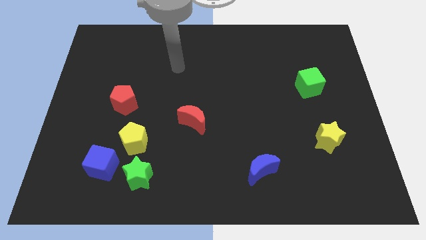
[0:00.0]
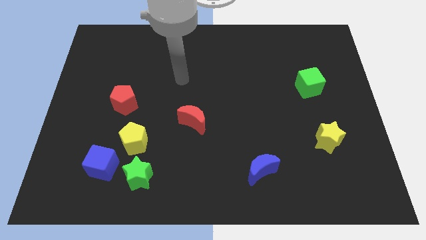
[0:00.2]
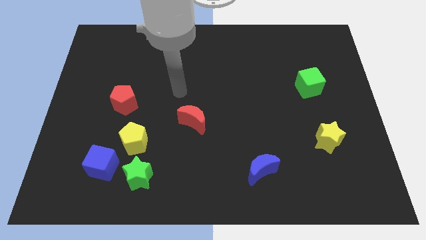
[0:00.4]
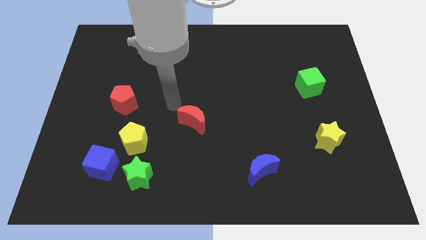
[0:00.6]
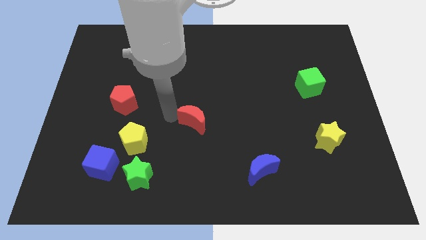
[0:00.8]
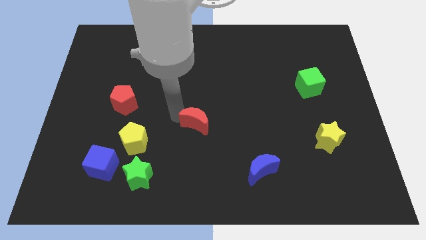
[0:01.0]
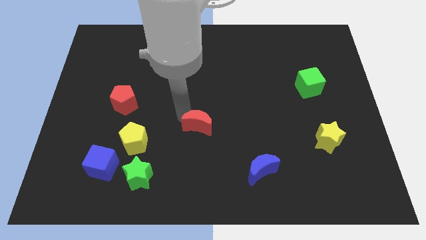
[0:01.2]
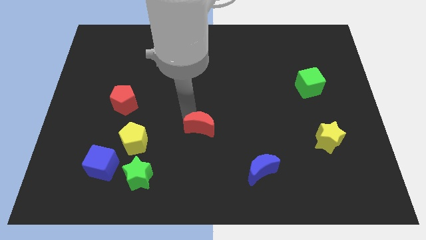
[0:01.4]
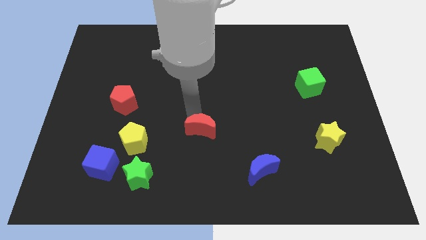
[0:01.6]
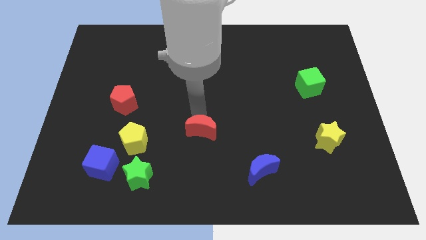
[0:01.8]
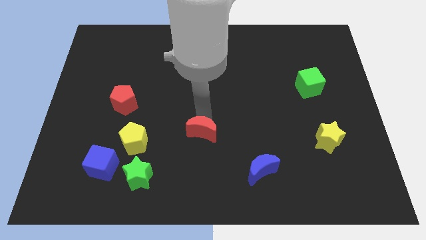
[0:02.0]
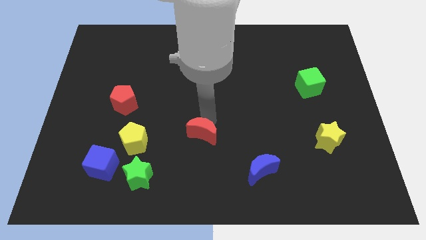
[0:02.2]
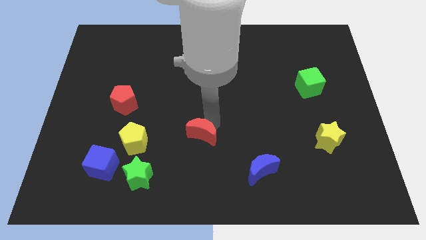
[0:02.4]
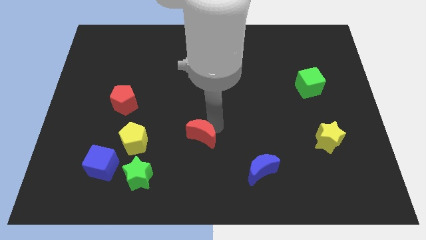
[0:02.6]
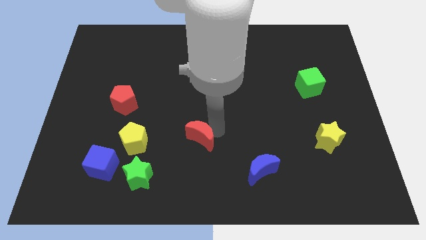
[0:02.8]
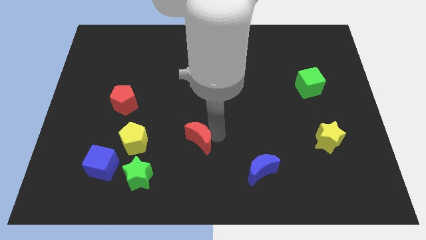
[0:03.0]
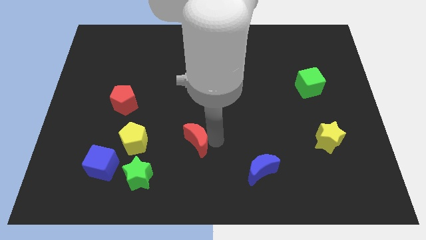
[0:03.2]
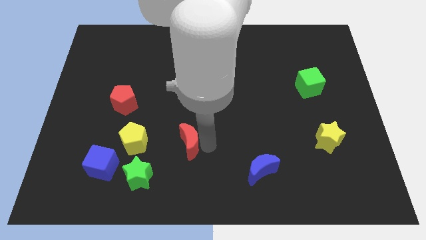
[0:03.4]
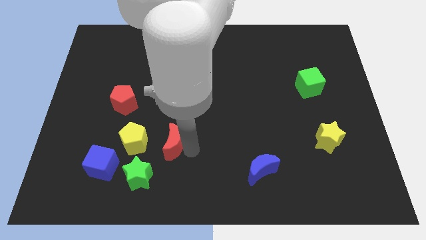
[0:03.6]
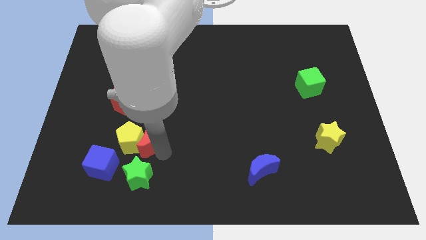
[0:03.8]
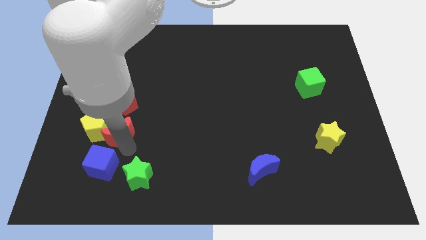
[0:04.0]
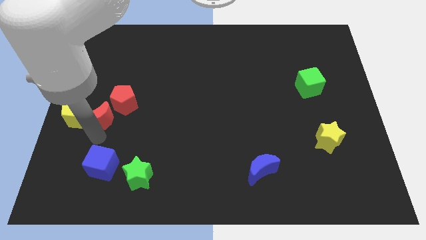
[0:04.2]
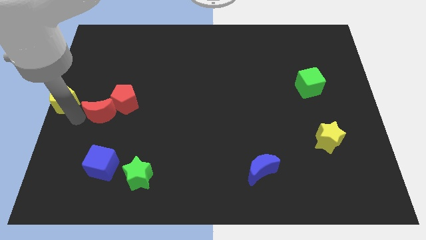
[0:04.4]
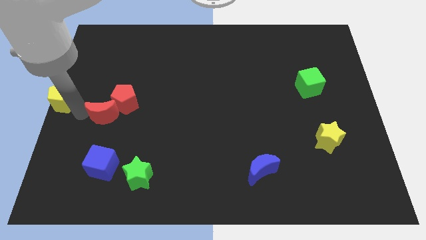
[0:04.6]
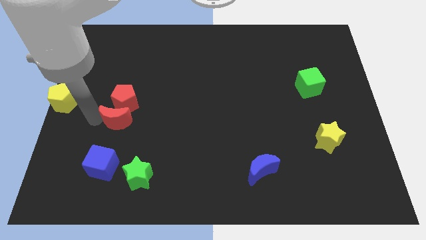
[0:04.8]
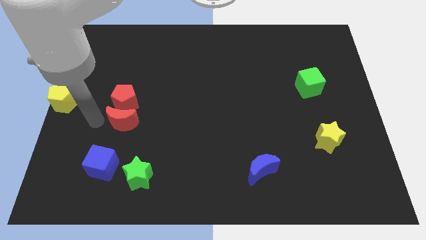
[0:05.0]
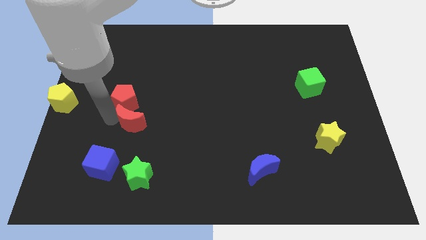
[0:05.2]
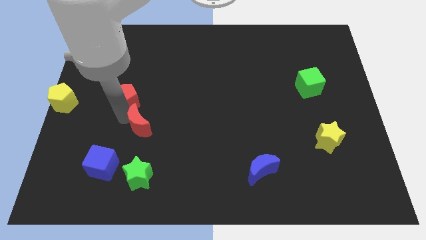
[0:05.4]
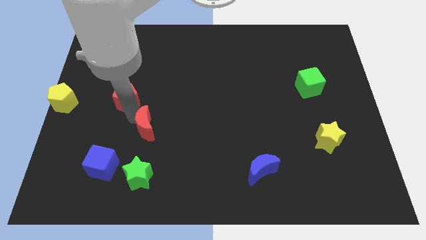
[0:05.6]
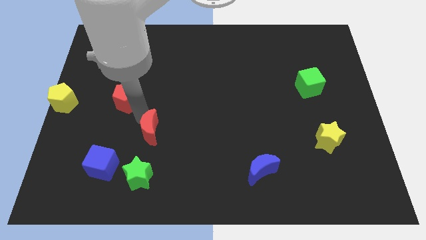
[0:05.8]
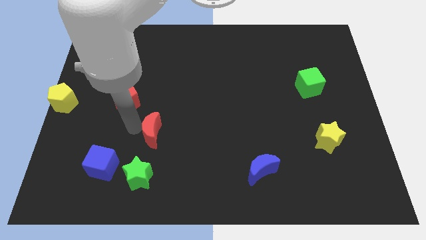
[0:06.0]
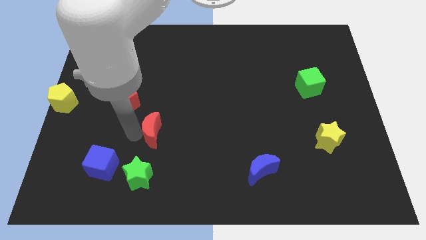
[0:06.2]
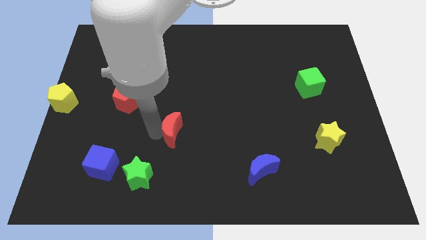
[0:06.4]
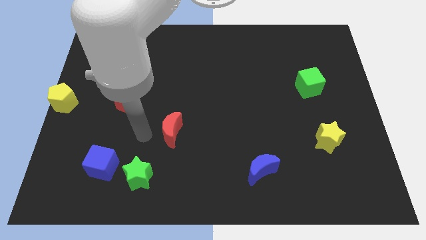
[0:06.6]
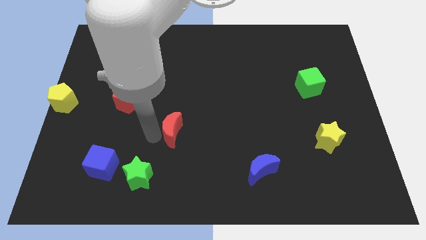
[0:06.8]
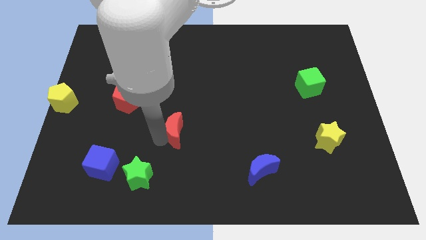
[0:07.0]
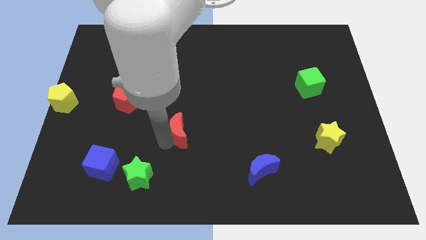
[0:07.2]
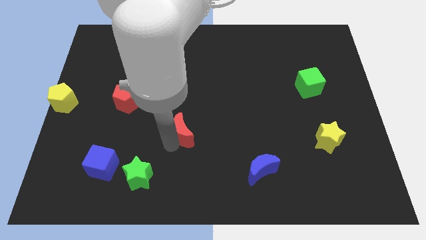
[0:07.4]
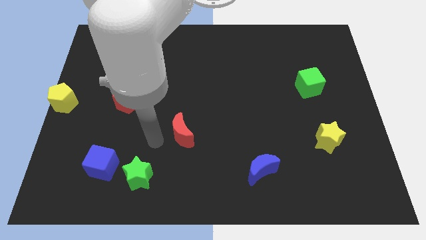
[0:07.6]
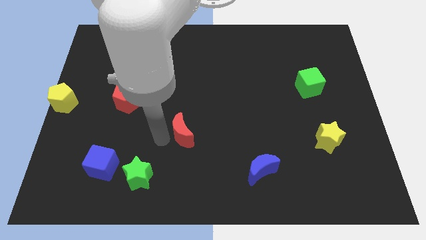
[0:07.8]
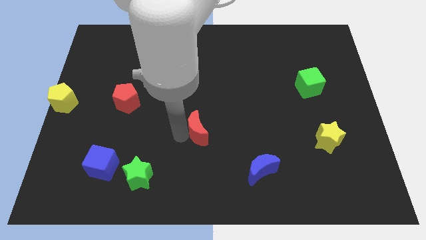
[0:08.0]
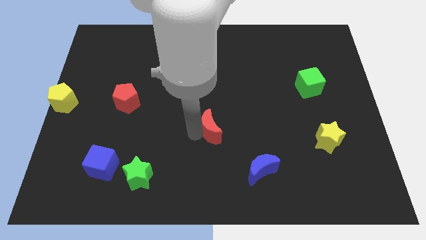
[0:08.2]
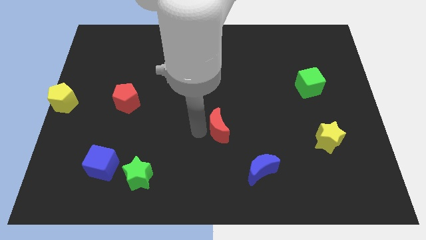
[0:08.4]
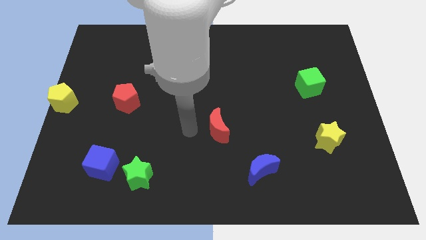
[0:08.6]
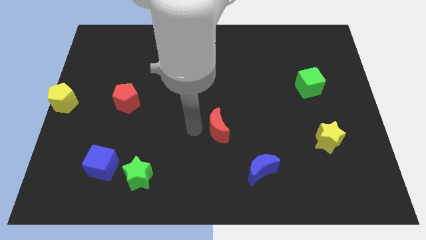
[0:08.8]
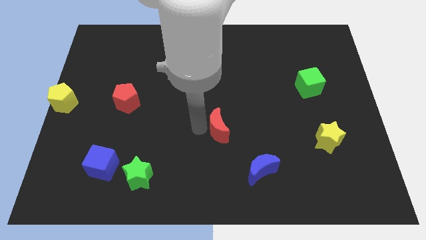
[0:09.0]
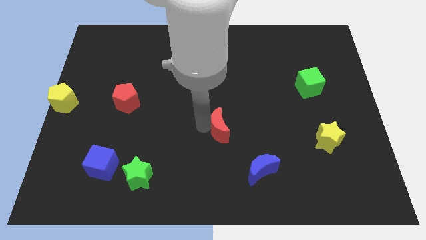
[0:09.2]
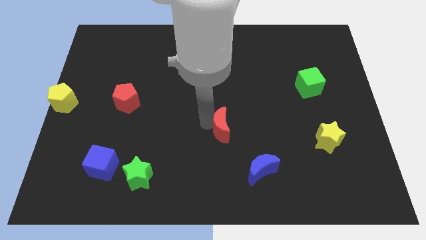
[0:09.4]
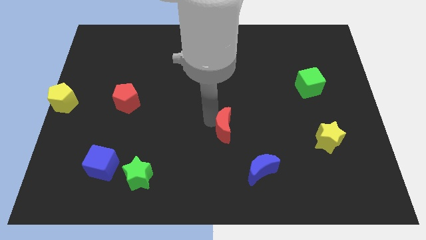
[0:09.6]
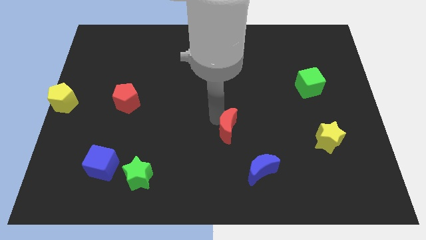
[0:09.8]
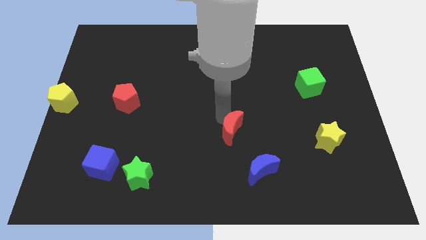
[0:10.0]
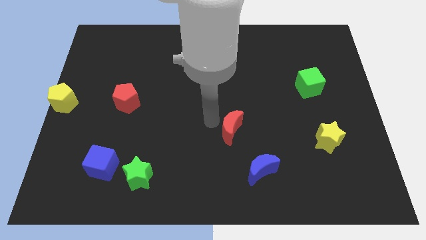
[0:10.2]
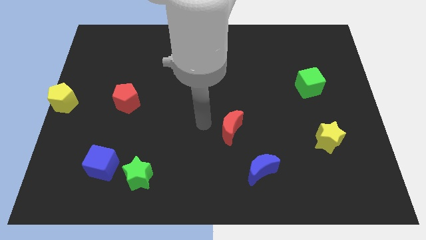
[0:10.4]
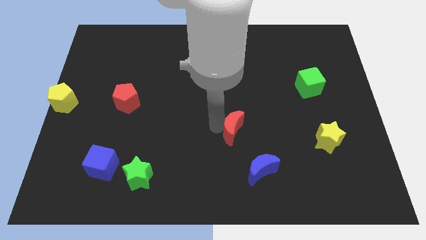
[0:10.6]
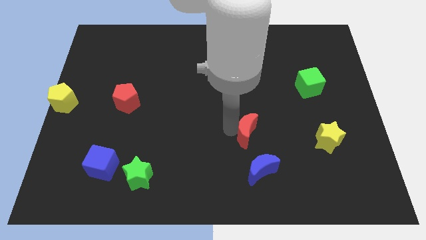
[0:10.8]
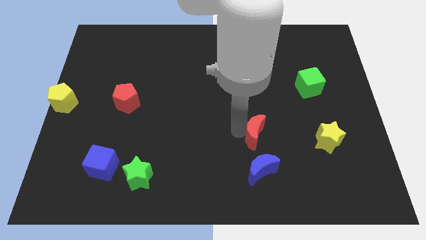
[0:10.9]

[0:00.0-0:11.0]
push the red moon to the left of the yellow star

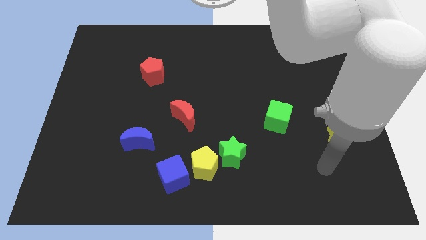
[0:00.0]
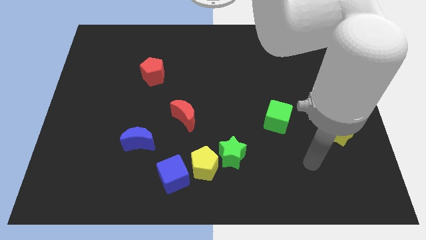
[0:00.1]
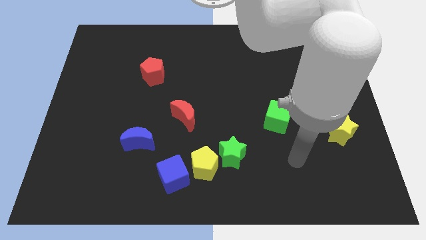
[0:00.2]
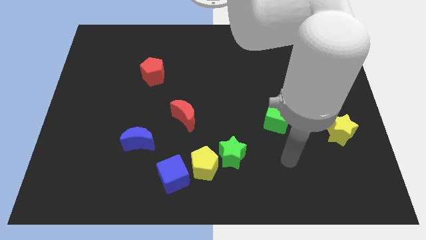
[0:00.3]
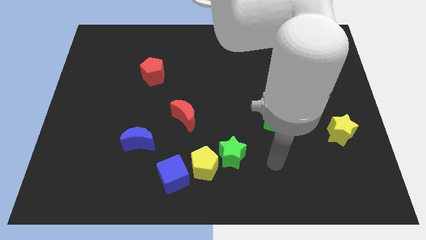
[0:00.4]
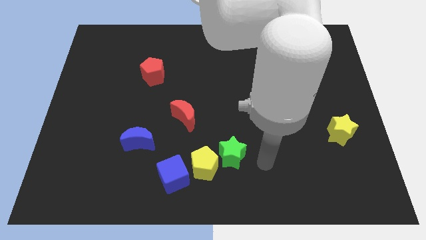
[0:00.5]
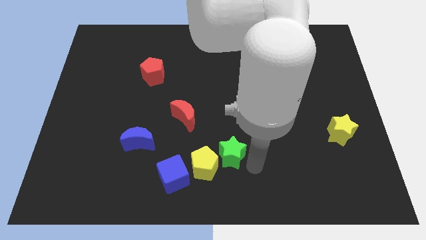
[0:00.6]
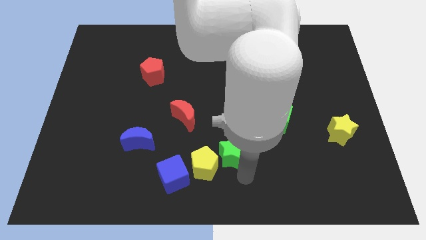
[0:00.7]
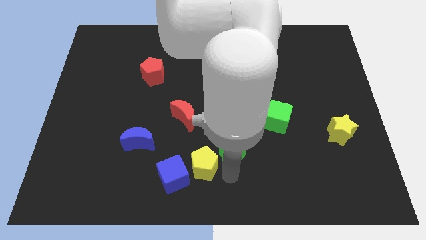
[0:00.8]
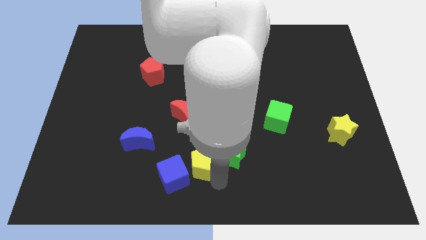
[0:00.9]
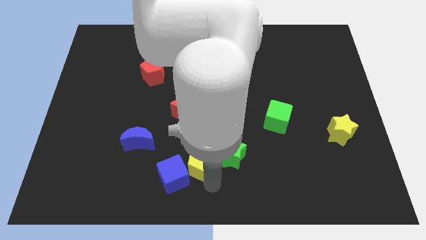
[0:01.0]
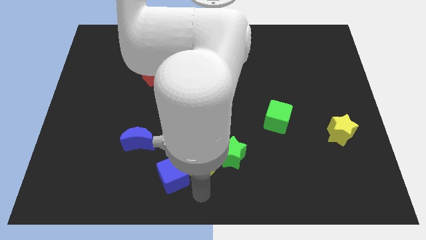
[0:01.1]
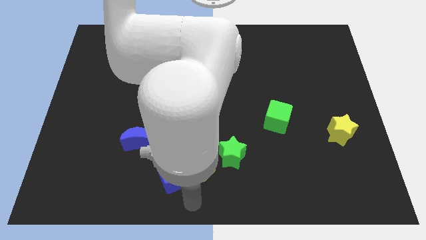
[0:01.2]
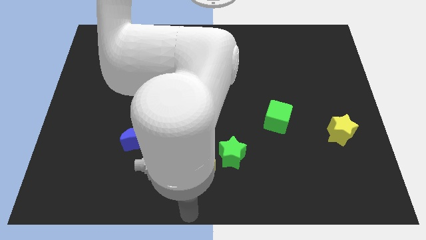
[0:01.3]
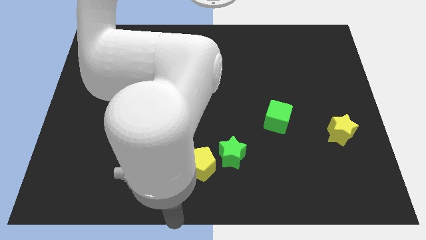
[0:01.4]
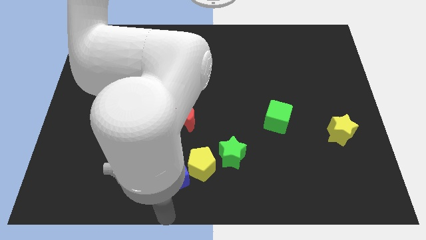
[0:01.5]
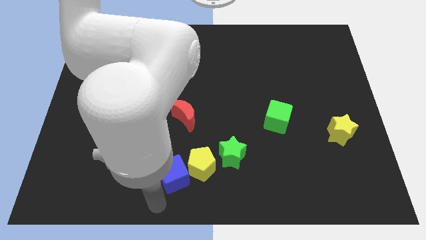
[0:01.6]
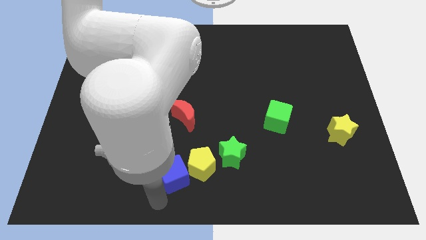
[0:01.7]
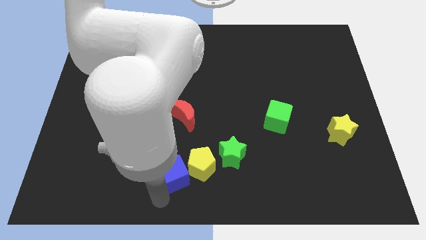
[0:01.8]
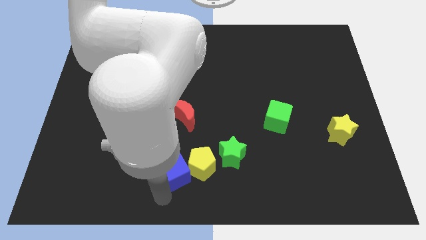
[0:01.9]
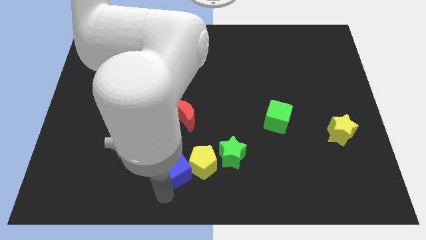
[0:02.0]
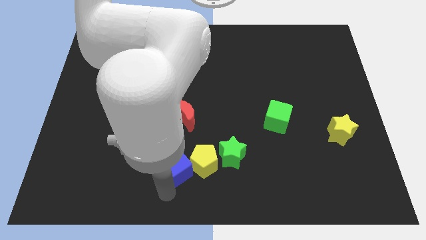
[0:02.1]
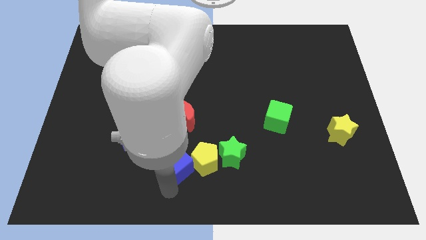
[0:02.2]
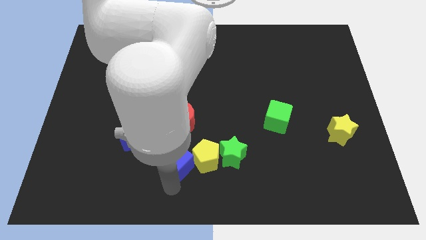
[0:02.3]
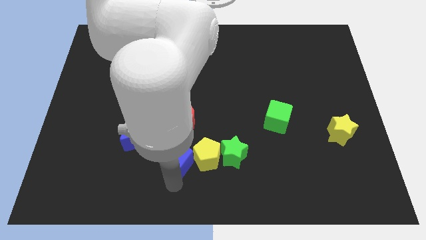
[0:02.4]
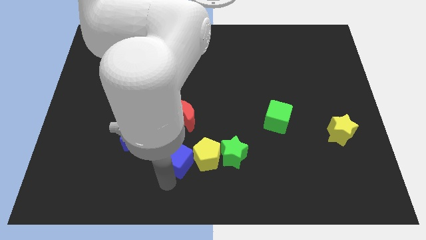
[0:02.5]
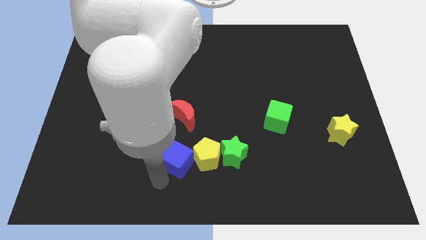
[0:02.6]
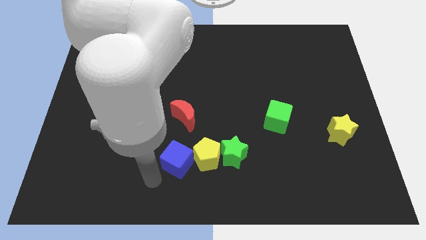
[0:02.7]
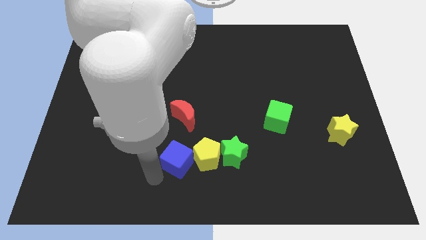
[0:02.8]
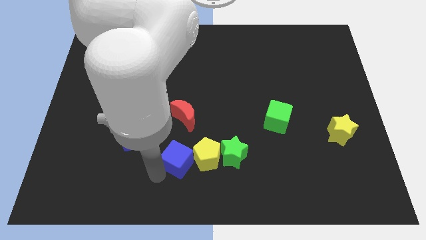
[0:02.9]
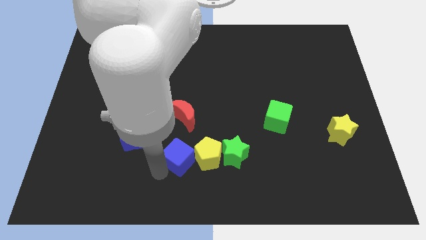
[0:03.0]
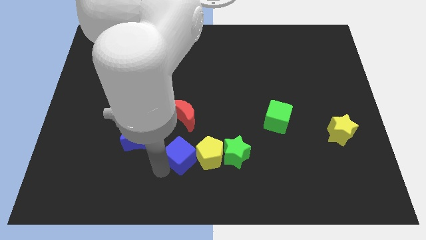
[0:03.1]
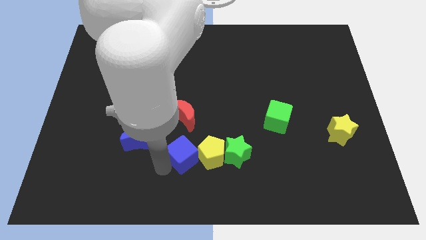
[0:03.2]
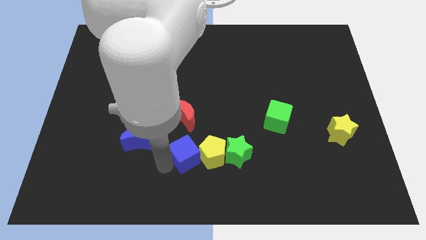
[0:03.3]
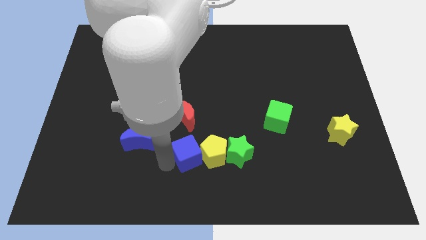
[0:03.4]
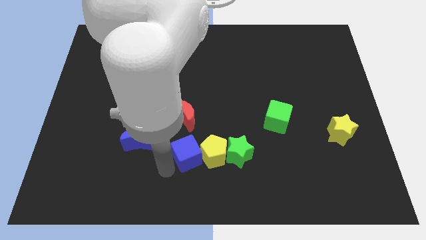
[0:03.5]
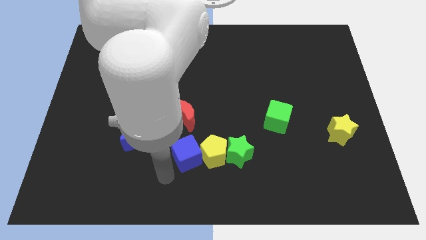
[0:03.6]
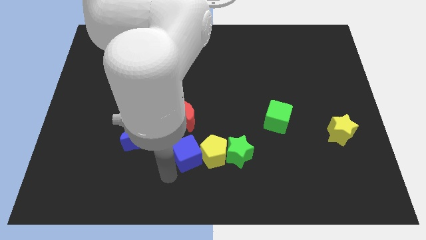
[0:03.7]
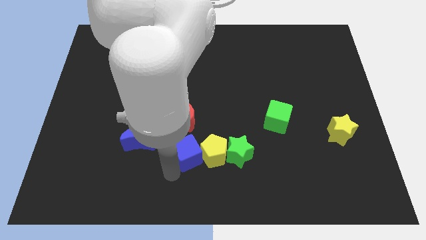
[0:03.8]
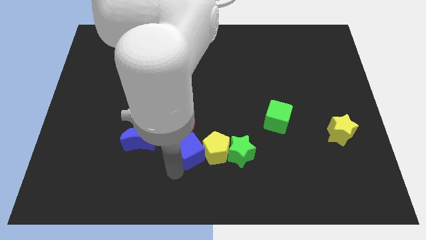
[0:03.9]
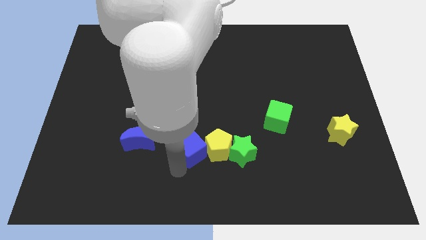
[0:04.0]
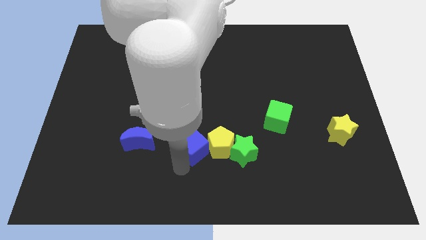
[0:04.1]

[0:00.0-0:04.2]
put the blue cube to the bottom right side of the red moon
